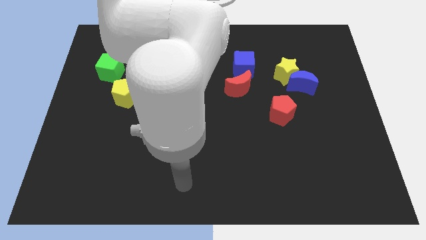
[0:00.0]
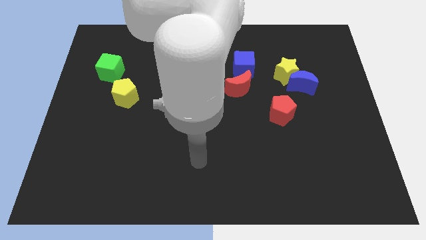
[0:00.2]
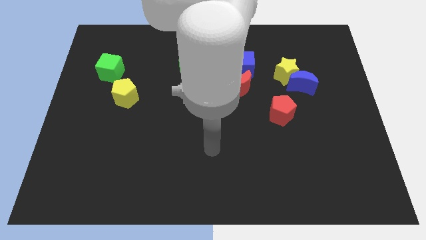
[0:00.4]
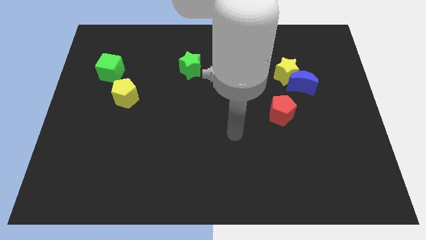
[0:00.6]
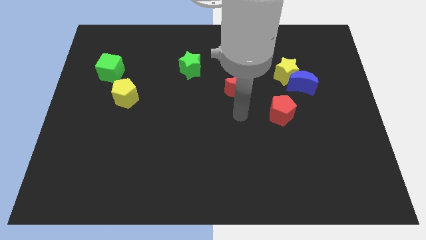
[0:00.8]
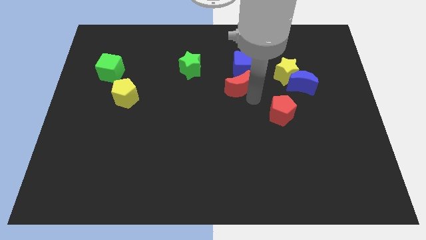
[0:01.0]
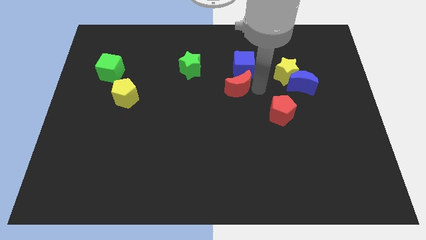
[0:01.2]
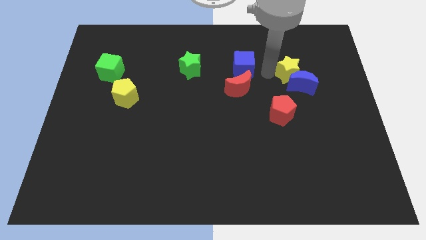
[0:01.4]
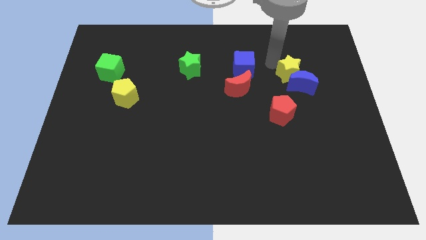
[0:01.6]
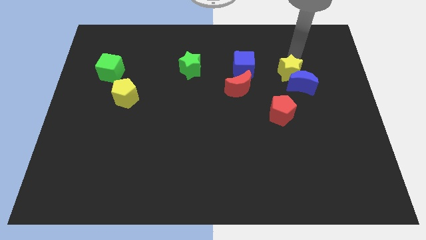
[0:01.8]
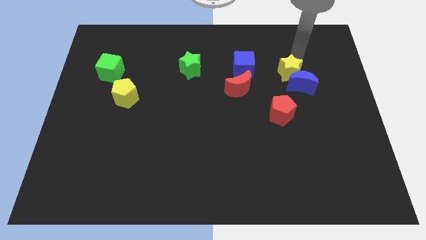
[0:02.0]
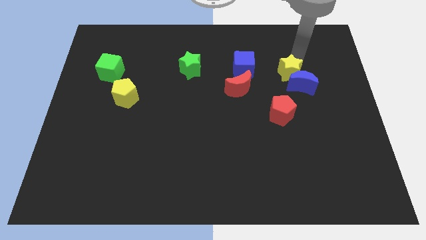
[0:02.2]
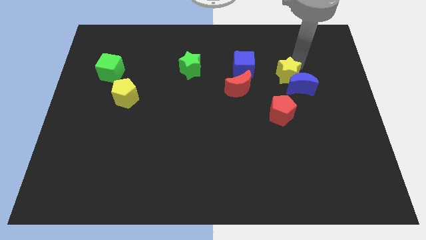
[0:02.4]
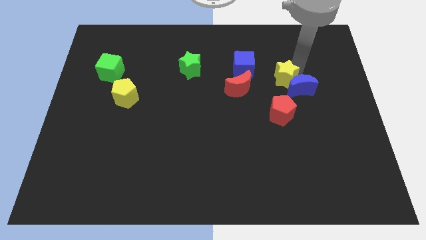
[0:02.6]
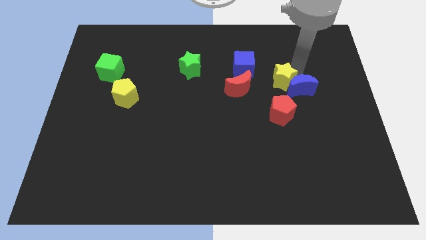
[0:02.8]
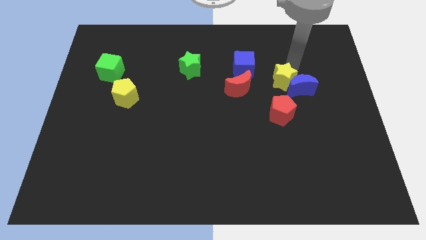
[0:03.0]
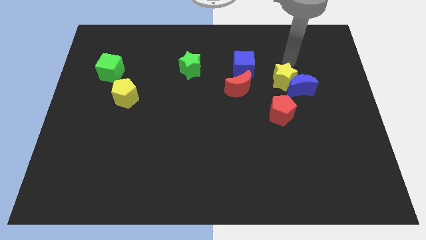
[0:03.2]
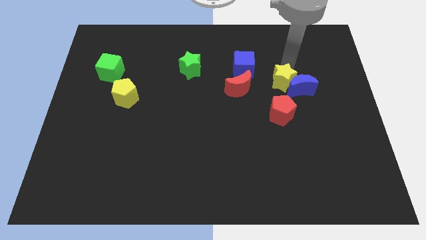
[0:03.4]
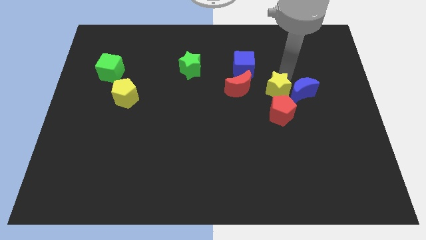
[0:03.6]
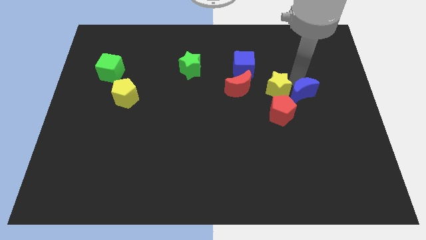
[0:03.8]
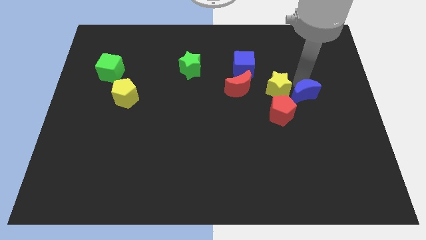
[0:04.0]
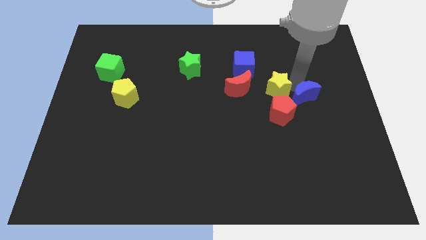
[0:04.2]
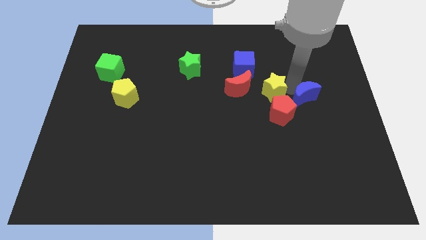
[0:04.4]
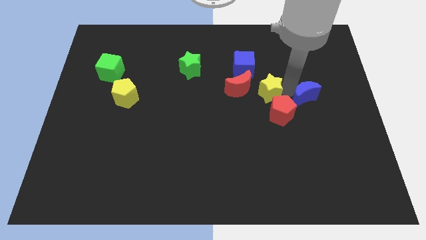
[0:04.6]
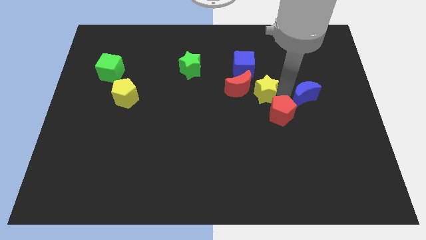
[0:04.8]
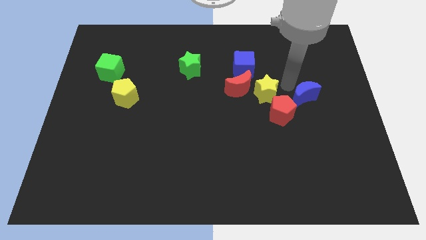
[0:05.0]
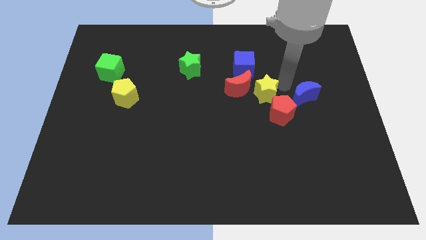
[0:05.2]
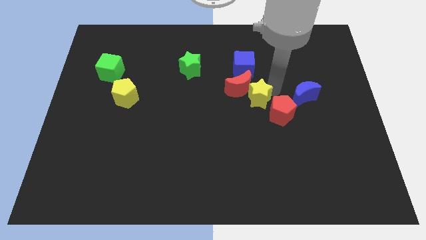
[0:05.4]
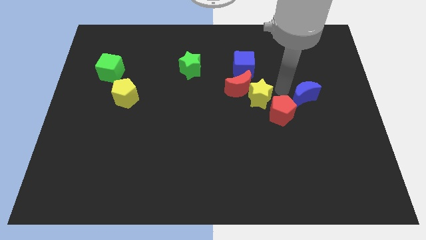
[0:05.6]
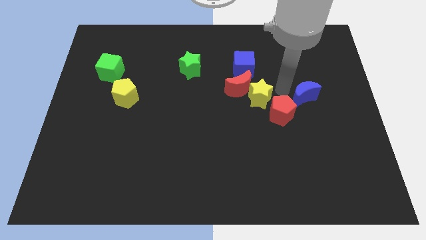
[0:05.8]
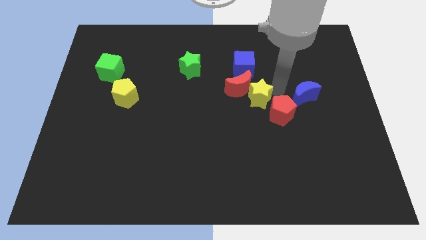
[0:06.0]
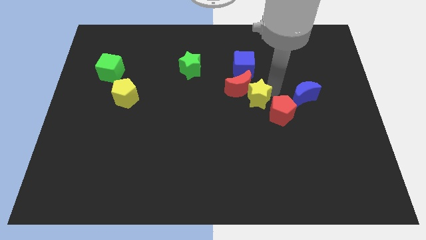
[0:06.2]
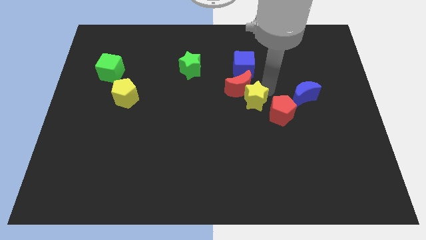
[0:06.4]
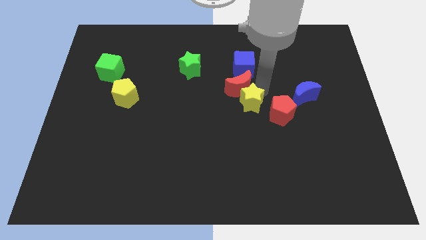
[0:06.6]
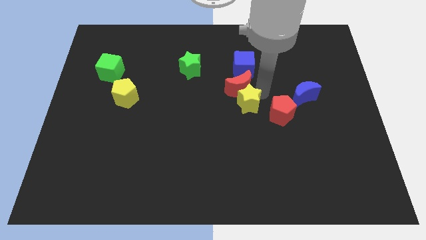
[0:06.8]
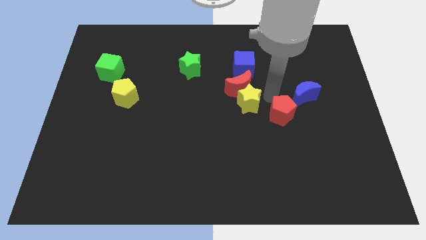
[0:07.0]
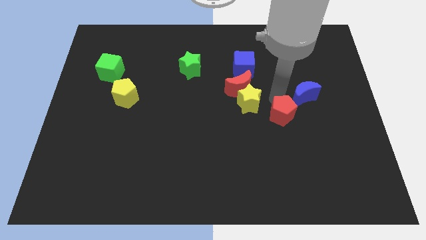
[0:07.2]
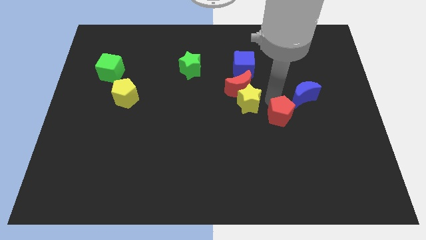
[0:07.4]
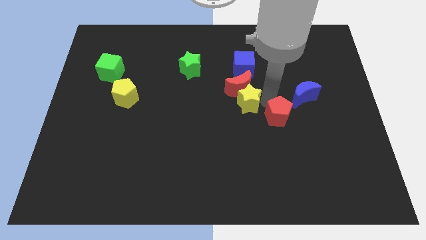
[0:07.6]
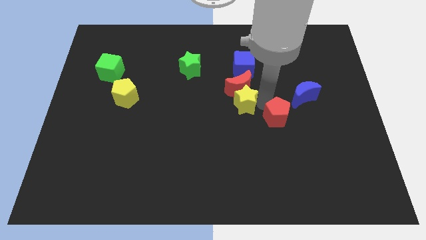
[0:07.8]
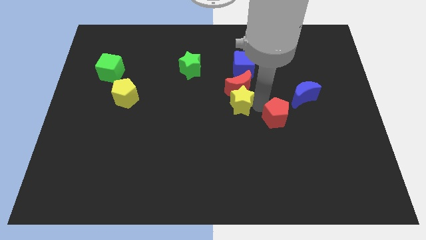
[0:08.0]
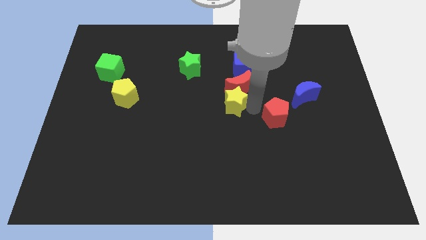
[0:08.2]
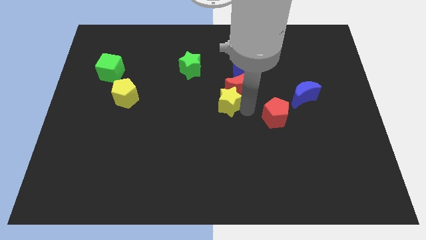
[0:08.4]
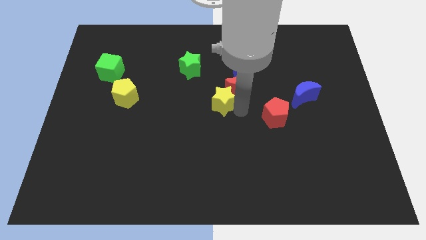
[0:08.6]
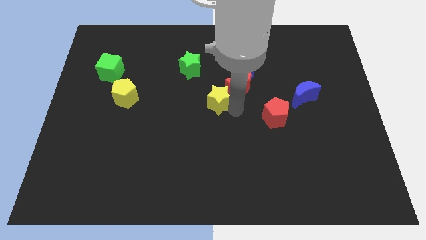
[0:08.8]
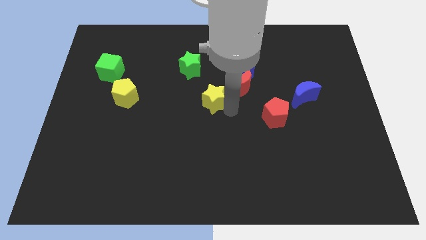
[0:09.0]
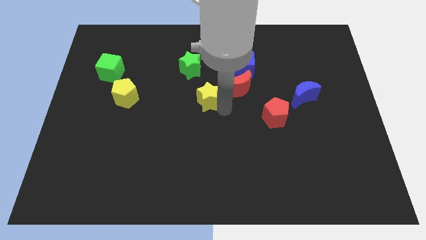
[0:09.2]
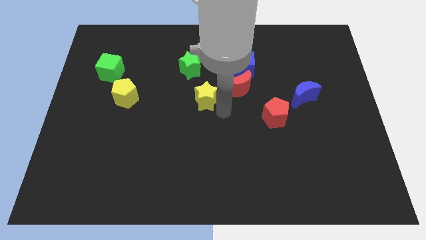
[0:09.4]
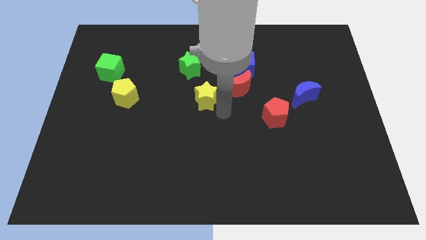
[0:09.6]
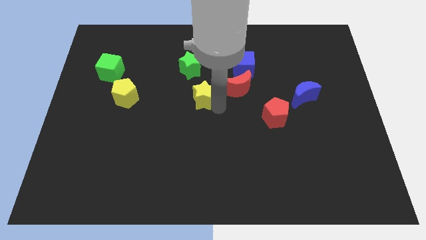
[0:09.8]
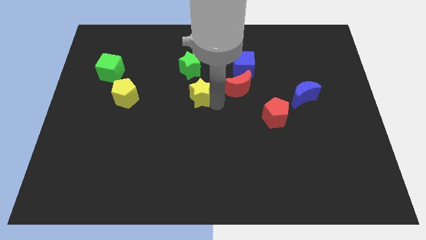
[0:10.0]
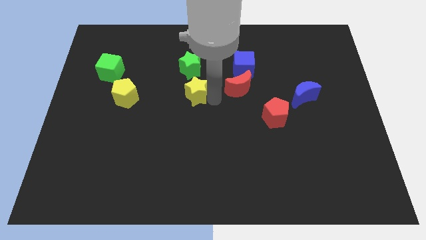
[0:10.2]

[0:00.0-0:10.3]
move the yellow star left

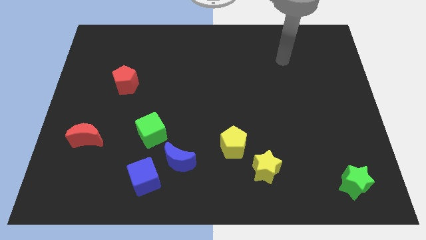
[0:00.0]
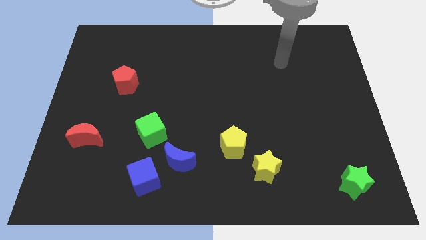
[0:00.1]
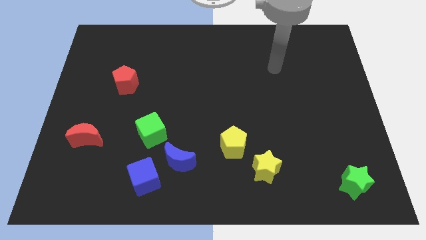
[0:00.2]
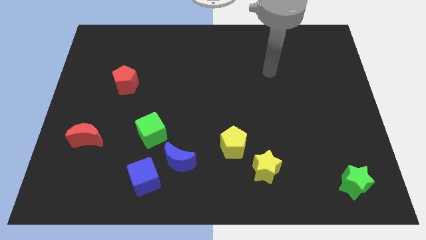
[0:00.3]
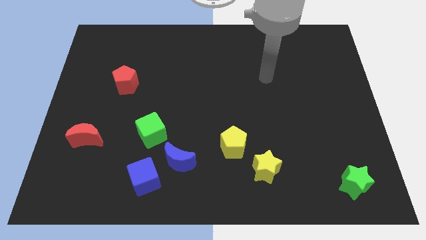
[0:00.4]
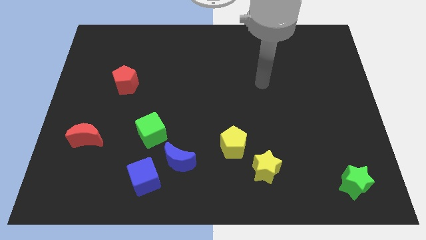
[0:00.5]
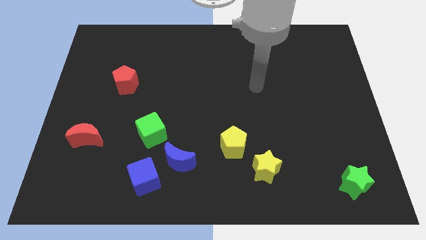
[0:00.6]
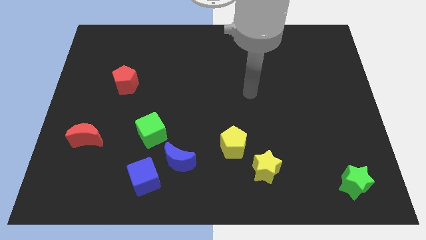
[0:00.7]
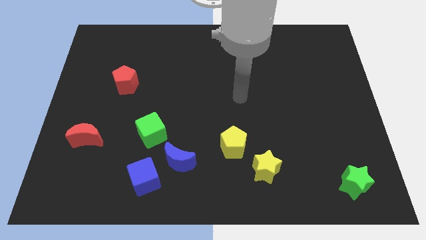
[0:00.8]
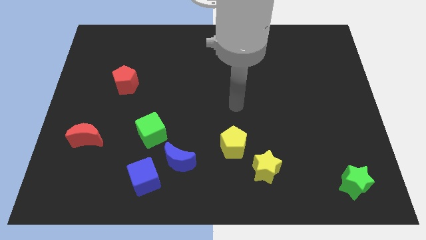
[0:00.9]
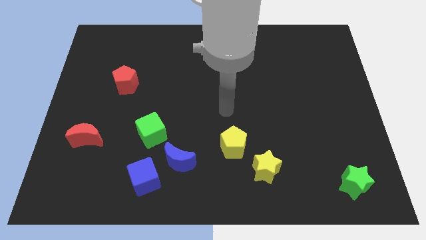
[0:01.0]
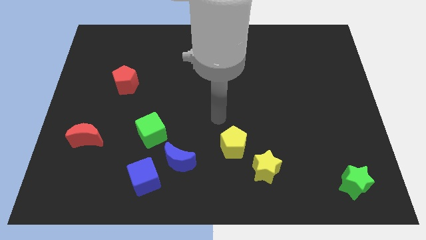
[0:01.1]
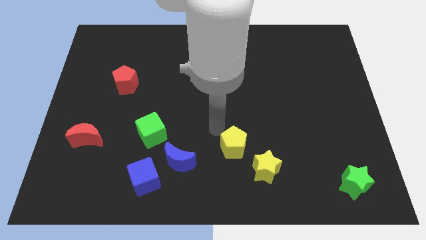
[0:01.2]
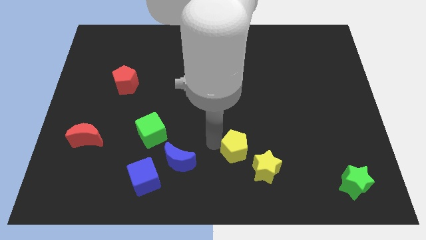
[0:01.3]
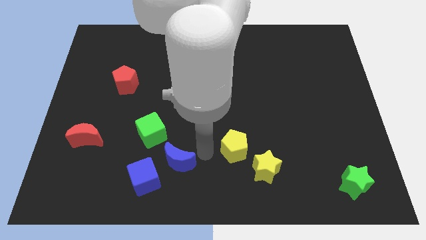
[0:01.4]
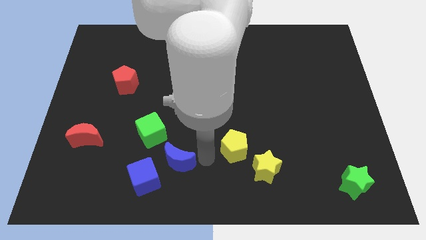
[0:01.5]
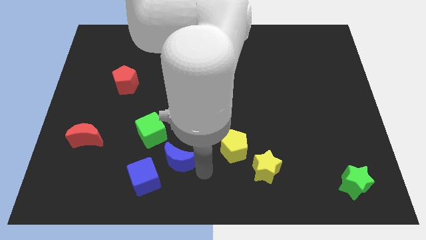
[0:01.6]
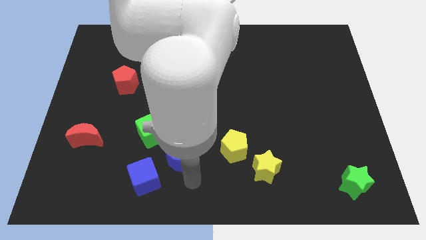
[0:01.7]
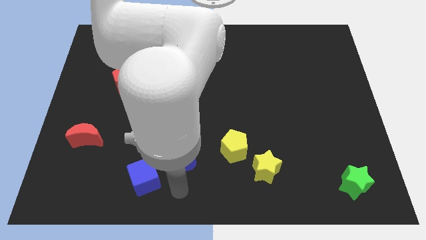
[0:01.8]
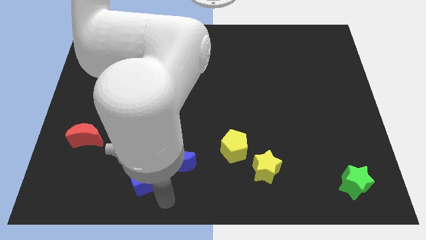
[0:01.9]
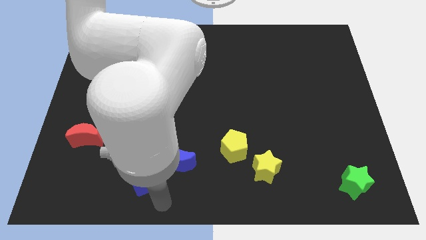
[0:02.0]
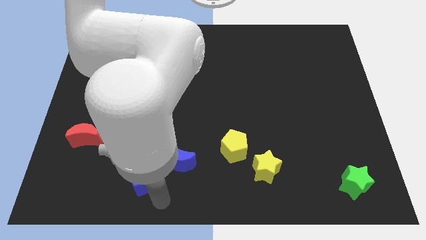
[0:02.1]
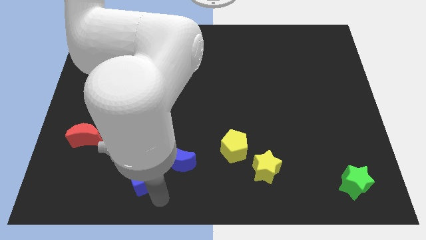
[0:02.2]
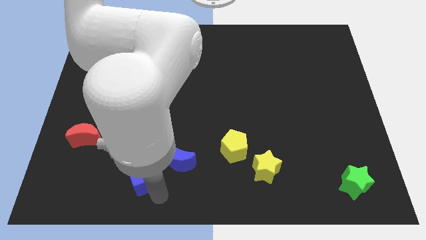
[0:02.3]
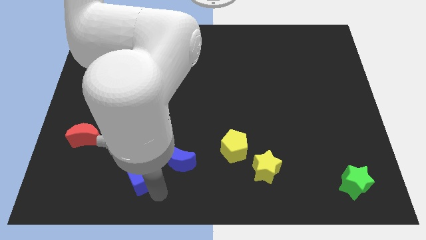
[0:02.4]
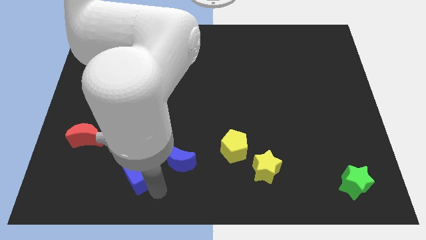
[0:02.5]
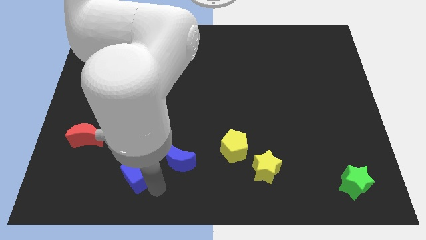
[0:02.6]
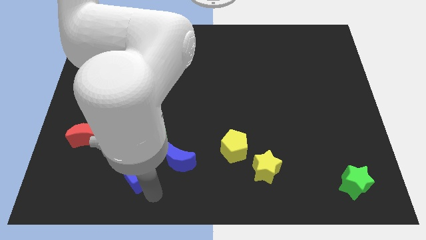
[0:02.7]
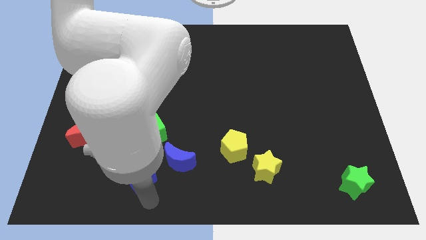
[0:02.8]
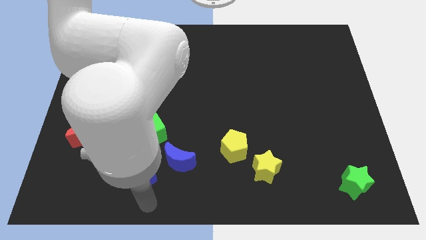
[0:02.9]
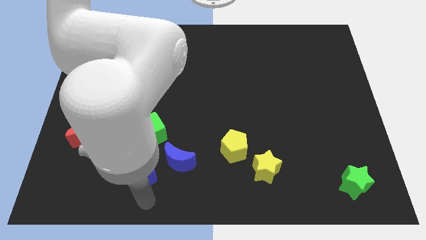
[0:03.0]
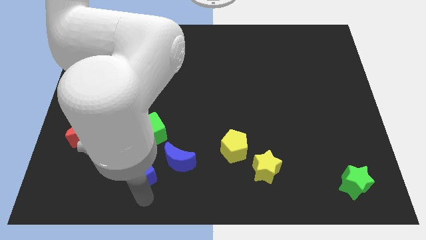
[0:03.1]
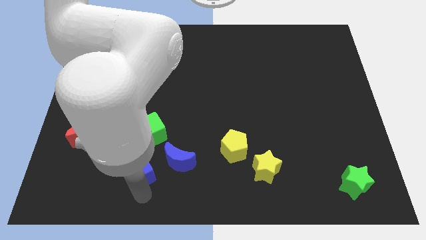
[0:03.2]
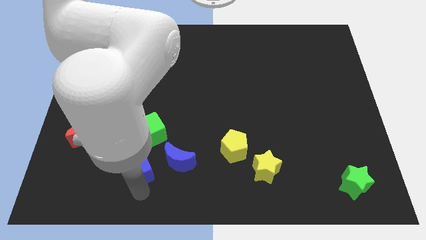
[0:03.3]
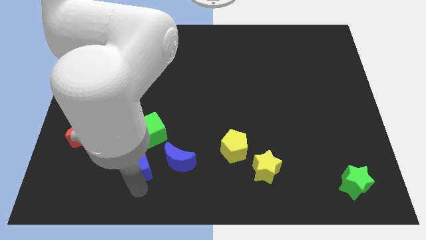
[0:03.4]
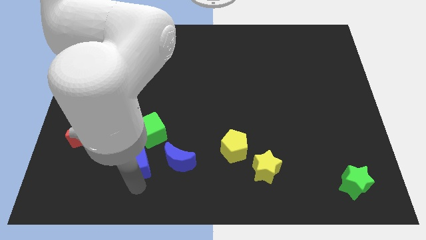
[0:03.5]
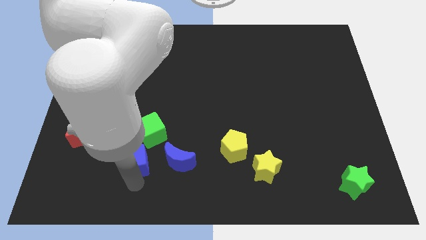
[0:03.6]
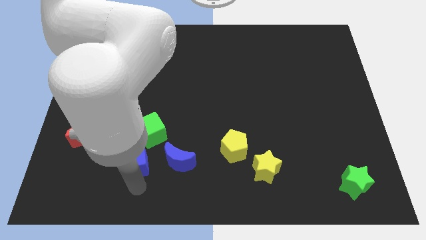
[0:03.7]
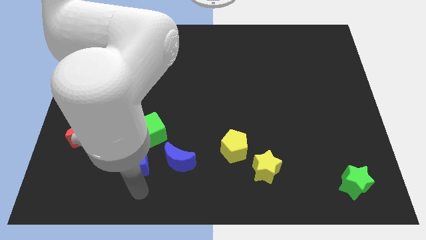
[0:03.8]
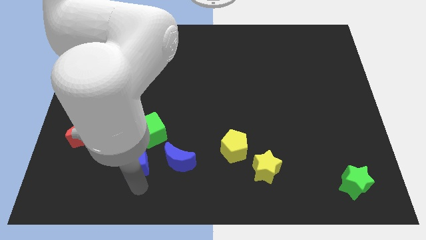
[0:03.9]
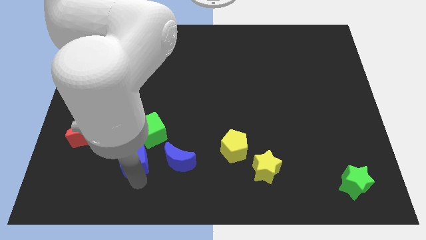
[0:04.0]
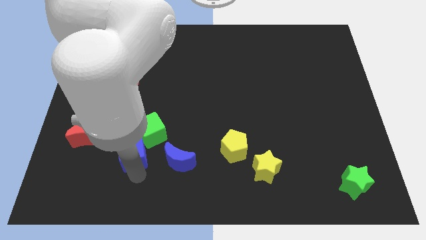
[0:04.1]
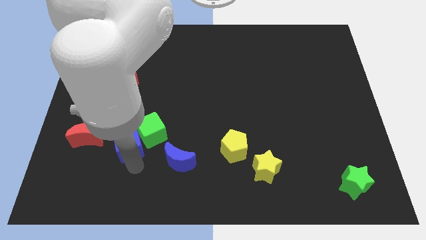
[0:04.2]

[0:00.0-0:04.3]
push the blue cube up somewhat
